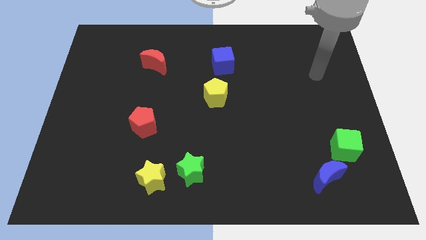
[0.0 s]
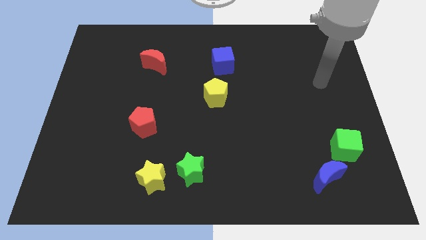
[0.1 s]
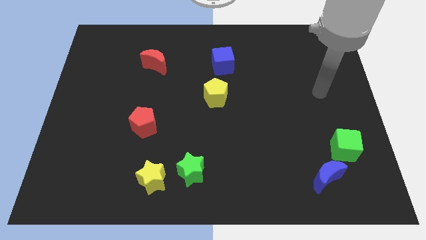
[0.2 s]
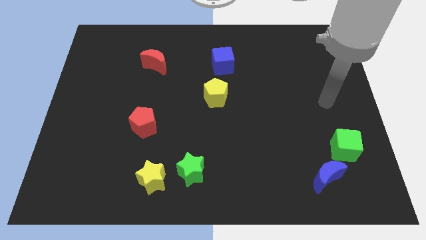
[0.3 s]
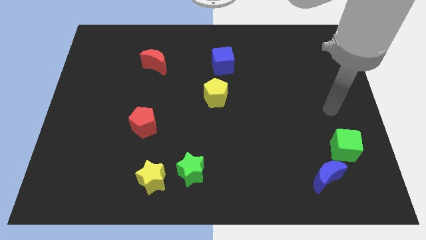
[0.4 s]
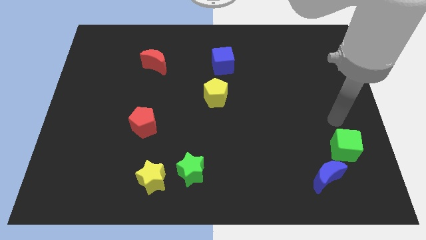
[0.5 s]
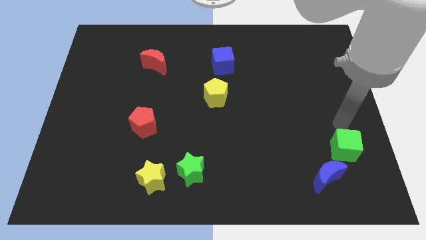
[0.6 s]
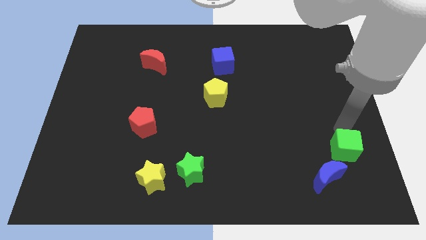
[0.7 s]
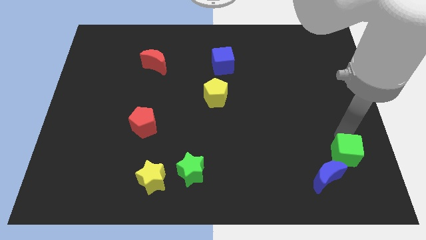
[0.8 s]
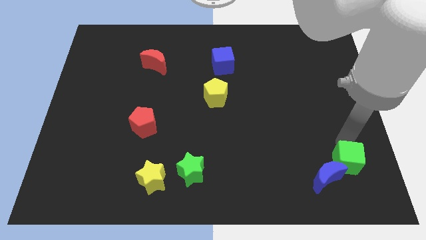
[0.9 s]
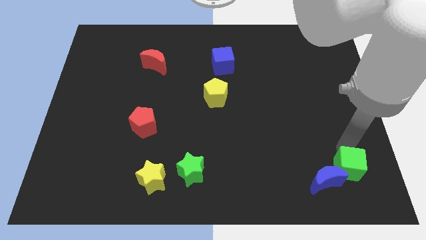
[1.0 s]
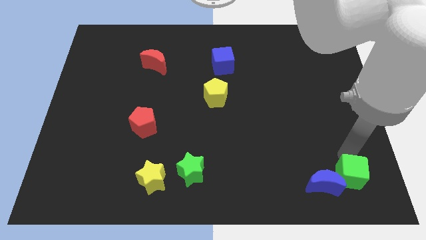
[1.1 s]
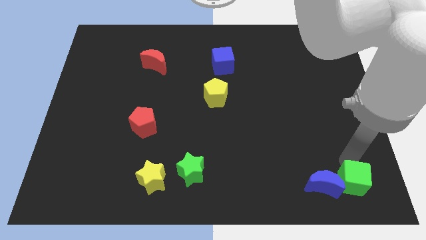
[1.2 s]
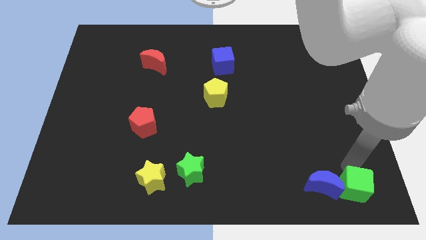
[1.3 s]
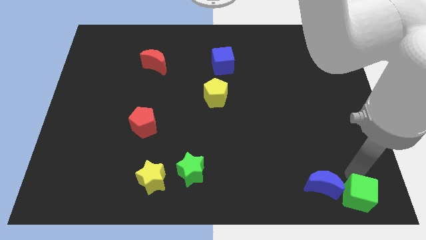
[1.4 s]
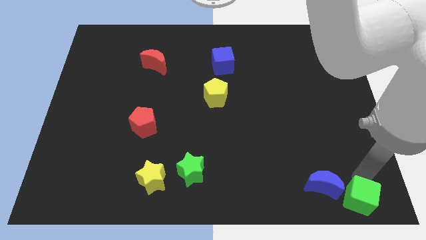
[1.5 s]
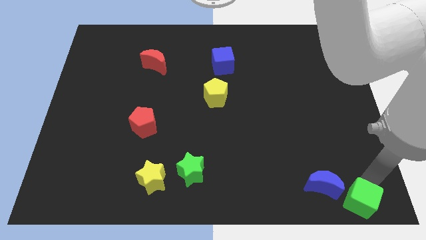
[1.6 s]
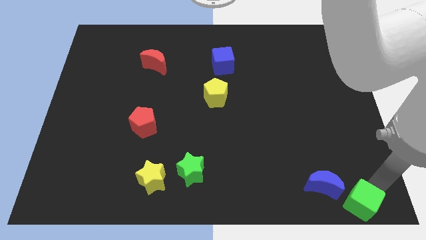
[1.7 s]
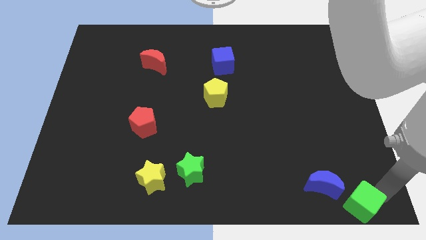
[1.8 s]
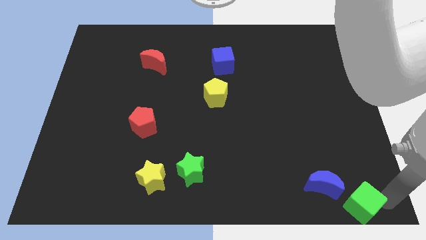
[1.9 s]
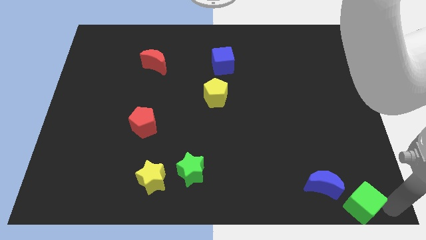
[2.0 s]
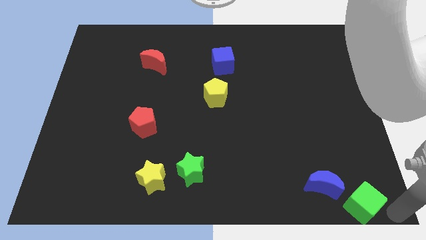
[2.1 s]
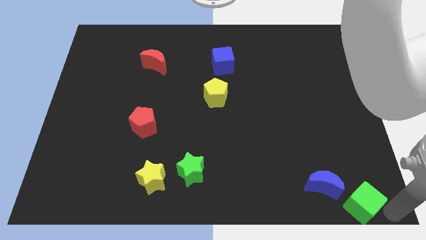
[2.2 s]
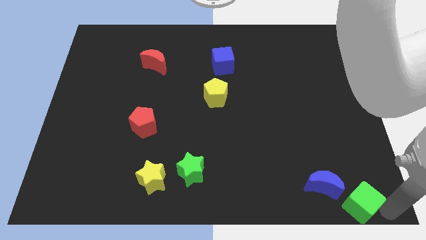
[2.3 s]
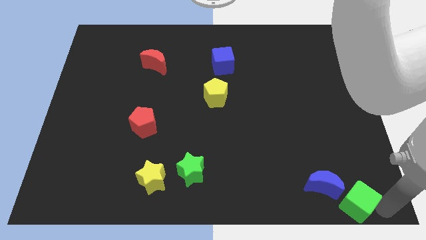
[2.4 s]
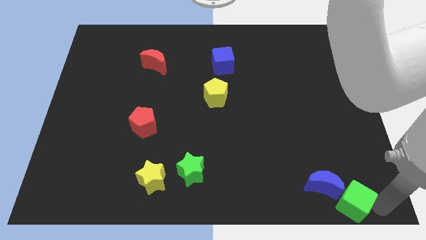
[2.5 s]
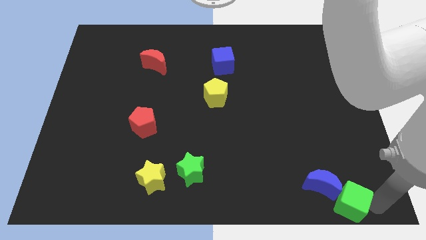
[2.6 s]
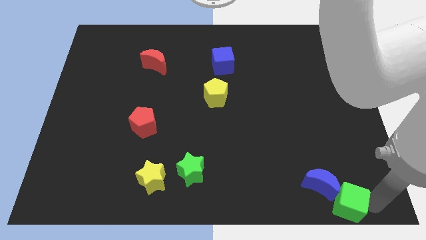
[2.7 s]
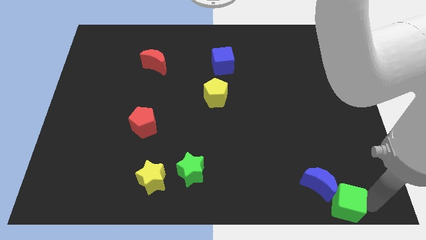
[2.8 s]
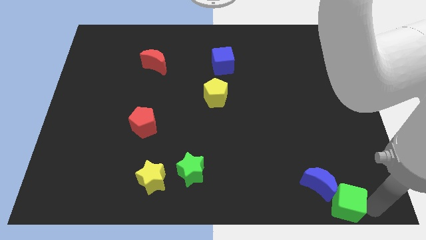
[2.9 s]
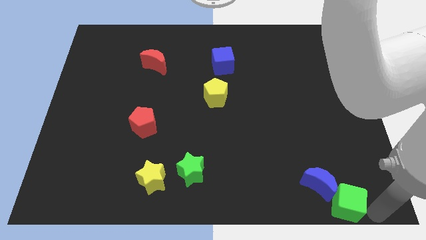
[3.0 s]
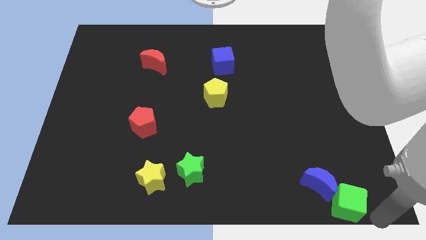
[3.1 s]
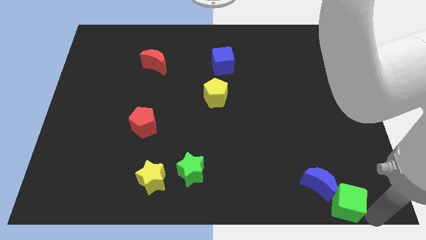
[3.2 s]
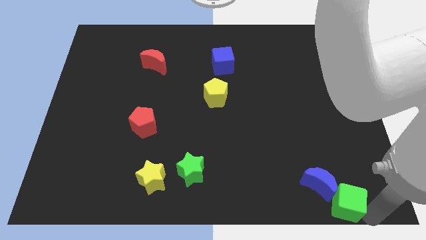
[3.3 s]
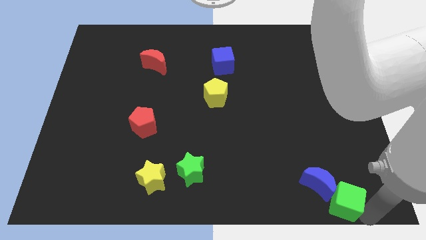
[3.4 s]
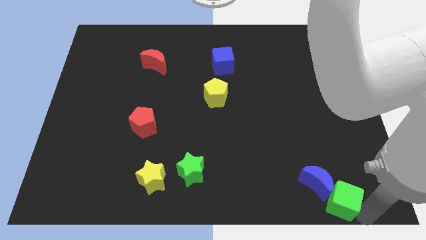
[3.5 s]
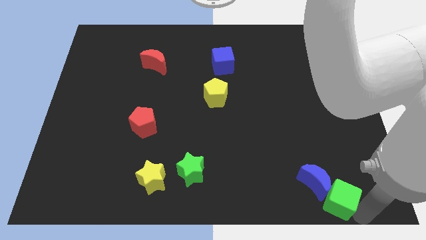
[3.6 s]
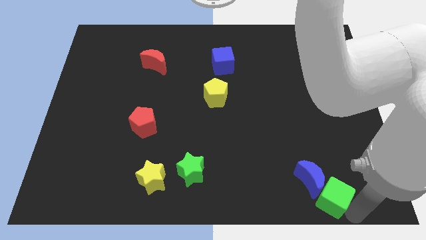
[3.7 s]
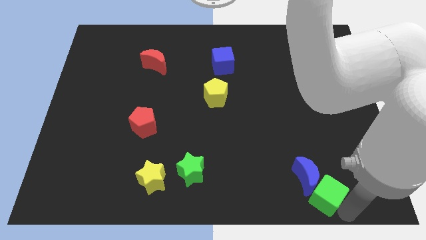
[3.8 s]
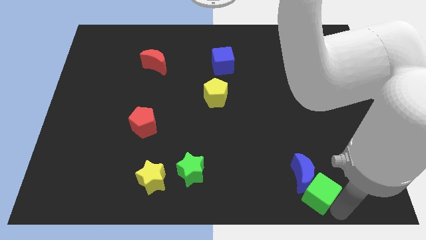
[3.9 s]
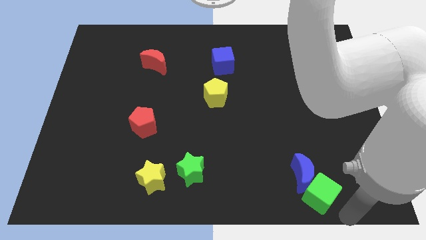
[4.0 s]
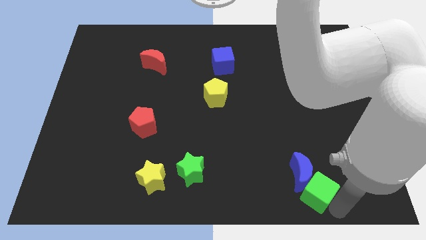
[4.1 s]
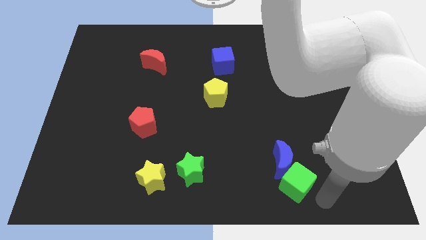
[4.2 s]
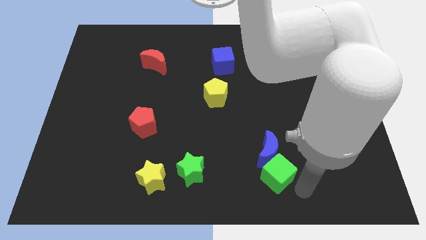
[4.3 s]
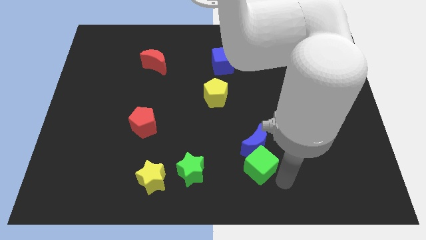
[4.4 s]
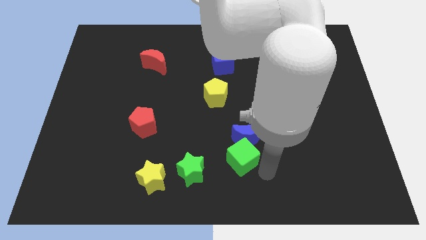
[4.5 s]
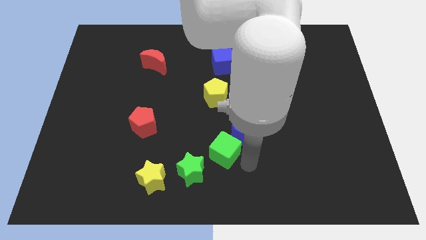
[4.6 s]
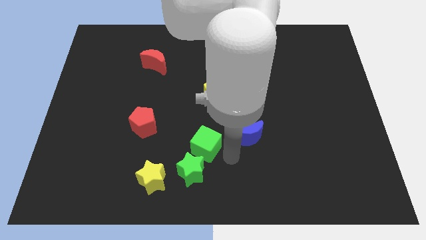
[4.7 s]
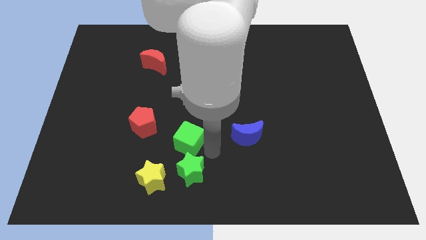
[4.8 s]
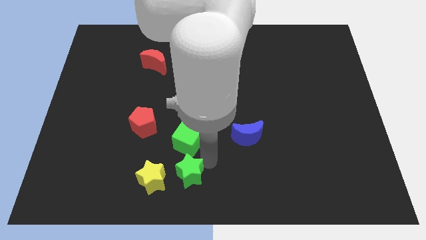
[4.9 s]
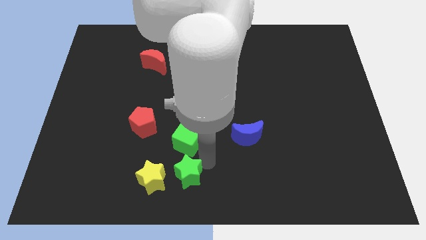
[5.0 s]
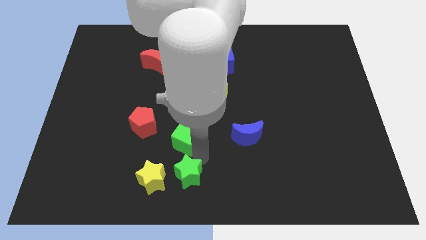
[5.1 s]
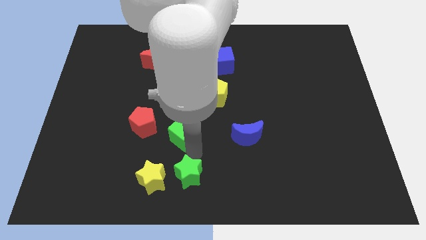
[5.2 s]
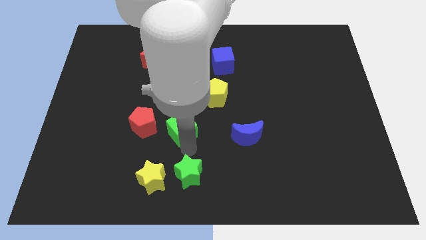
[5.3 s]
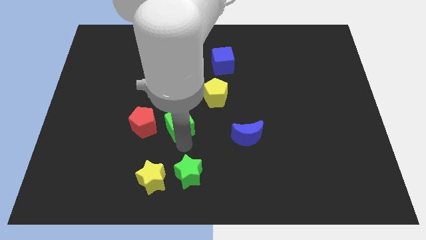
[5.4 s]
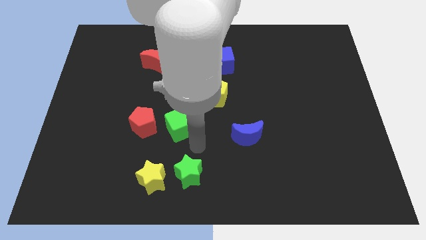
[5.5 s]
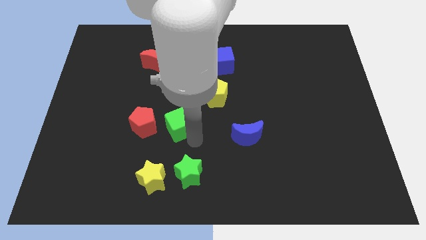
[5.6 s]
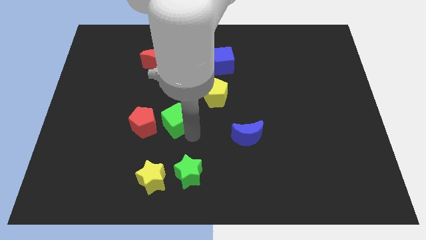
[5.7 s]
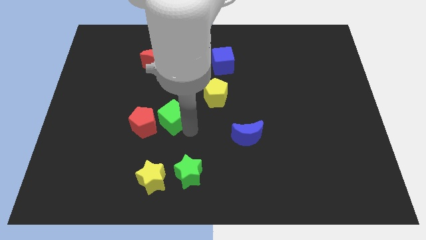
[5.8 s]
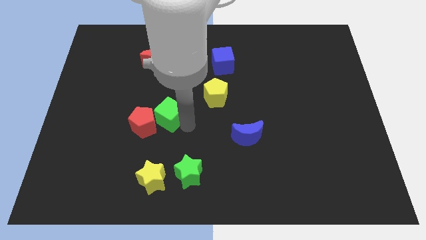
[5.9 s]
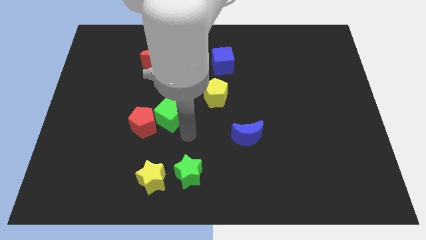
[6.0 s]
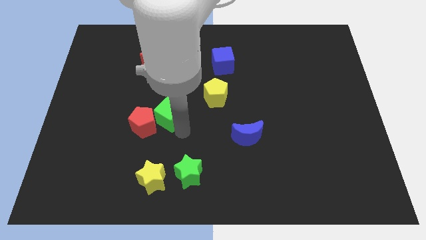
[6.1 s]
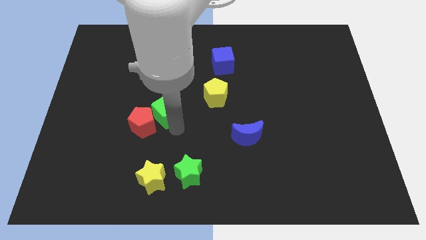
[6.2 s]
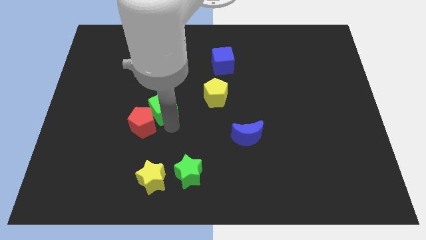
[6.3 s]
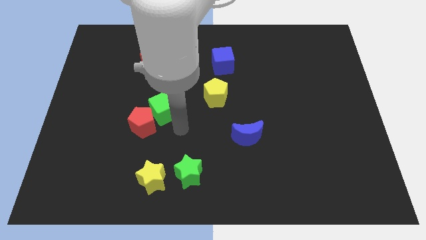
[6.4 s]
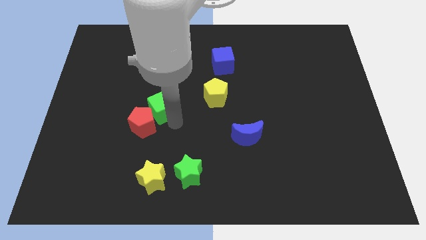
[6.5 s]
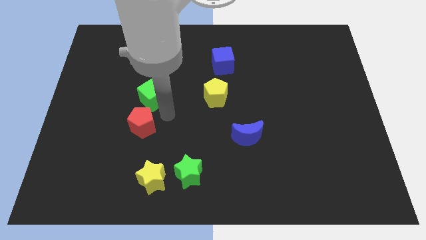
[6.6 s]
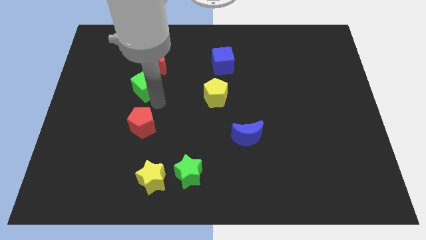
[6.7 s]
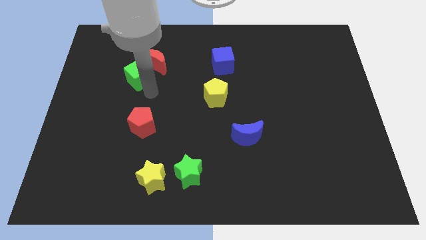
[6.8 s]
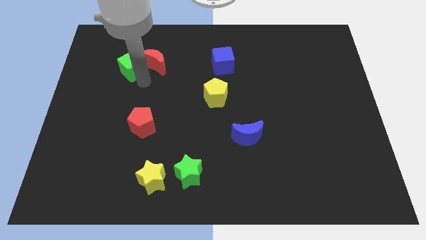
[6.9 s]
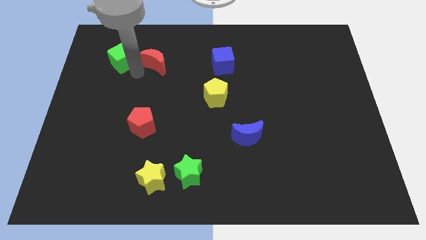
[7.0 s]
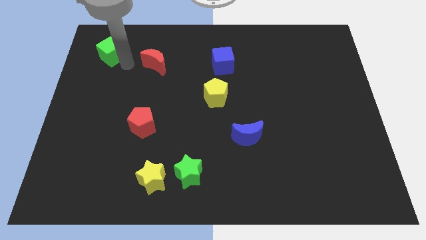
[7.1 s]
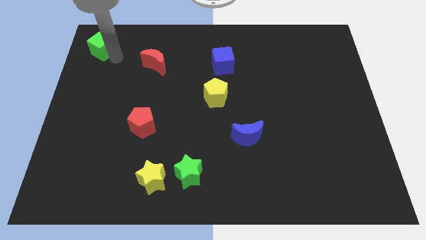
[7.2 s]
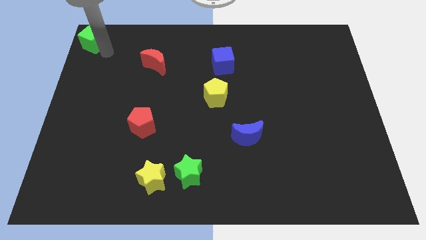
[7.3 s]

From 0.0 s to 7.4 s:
put the green cube to the top left

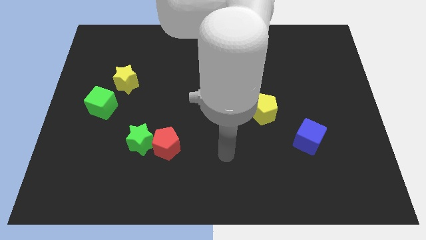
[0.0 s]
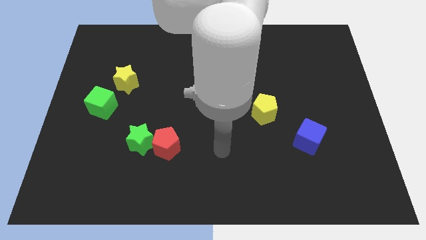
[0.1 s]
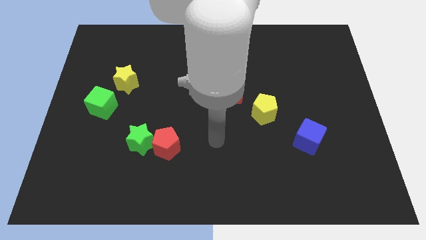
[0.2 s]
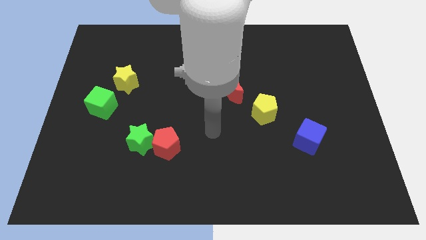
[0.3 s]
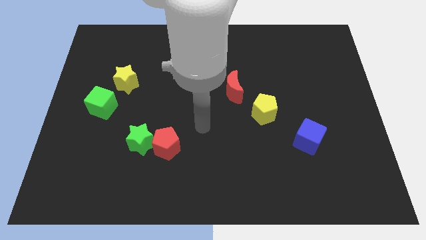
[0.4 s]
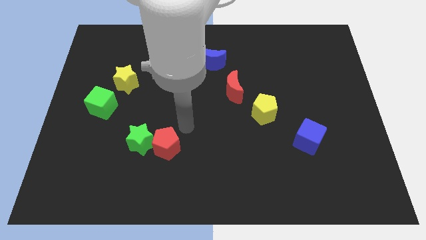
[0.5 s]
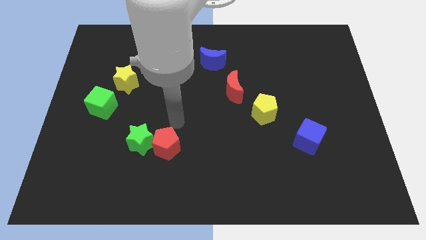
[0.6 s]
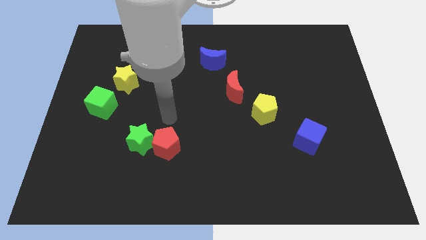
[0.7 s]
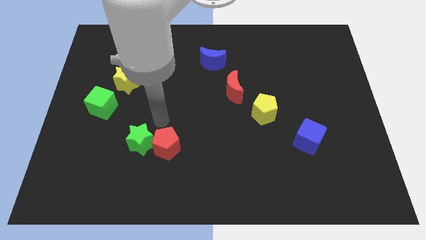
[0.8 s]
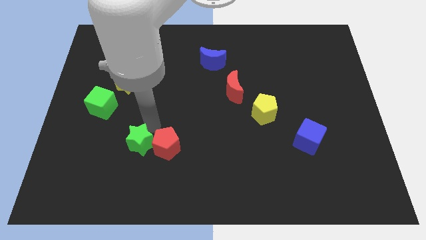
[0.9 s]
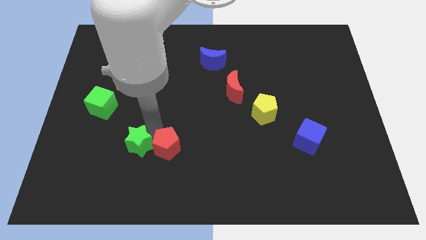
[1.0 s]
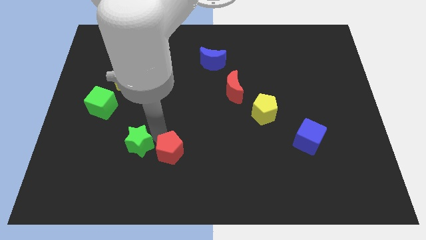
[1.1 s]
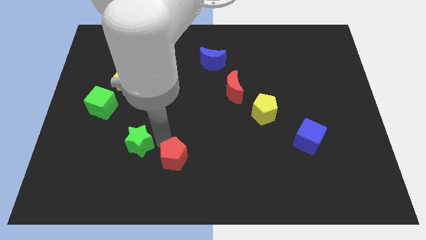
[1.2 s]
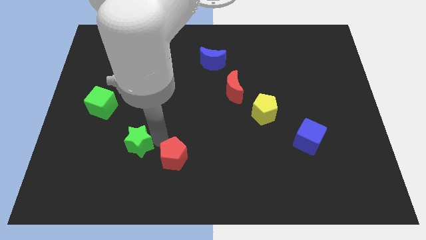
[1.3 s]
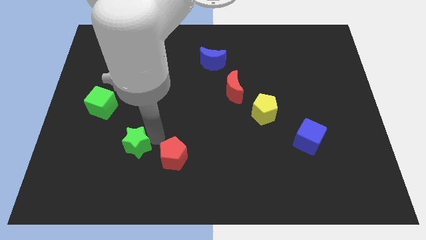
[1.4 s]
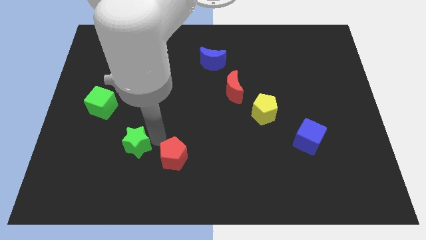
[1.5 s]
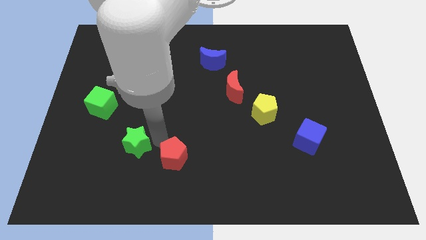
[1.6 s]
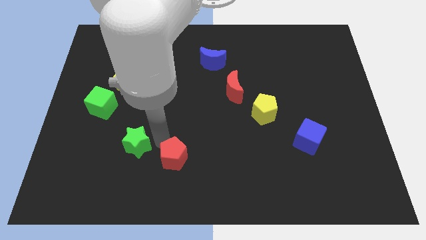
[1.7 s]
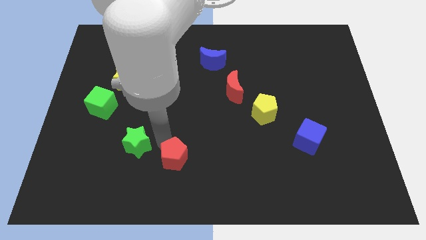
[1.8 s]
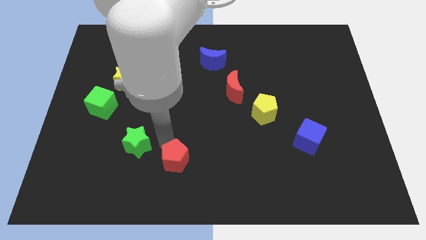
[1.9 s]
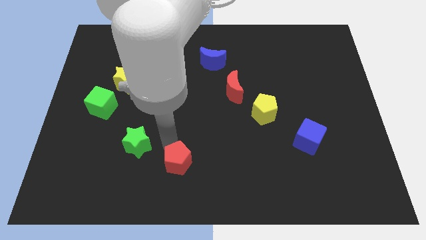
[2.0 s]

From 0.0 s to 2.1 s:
push the red pentagon to the bottom
